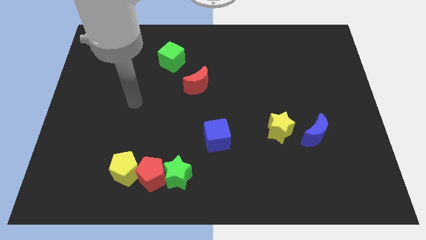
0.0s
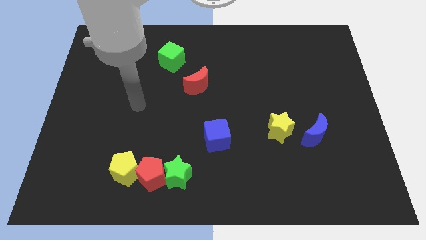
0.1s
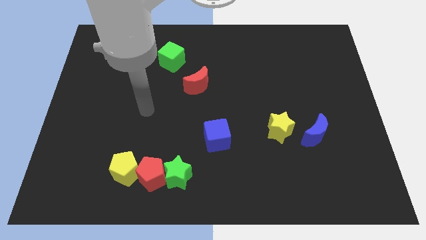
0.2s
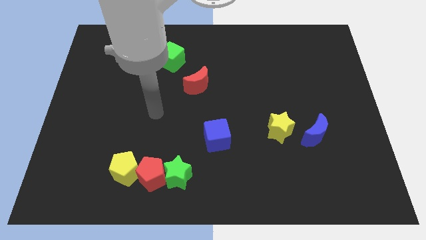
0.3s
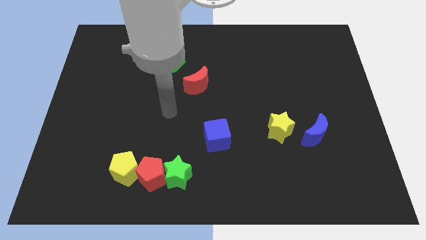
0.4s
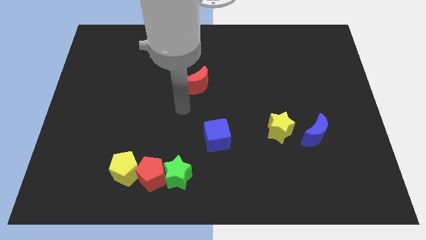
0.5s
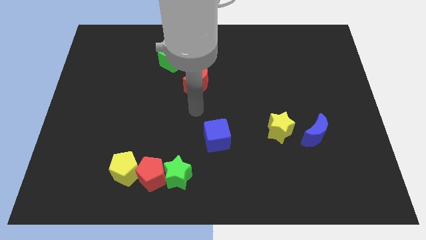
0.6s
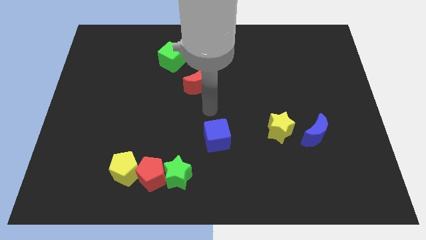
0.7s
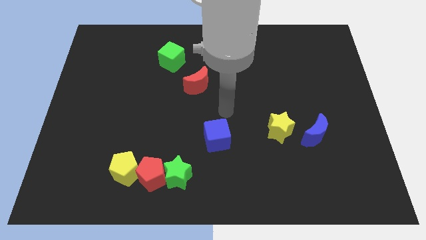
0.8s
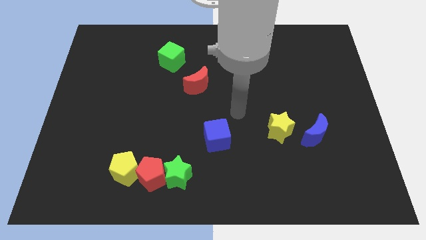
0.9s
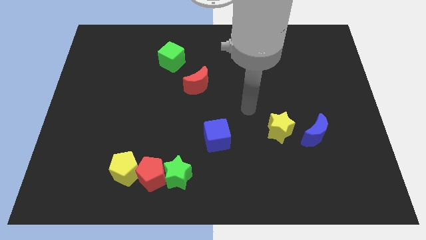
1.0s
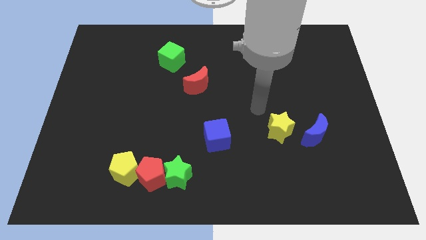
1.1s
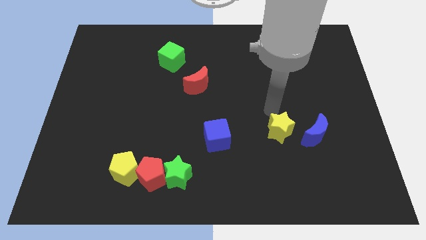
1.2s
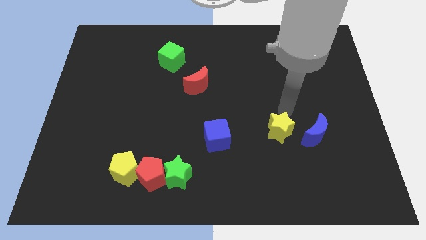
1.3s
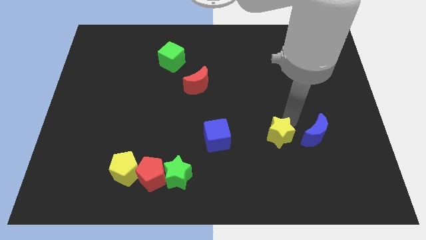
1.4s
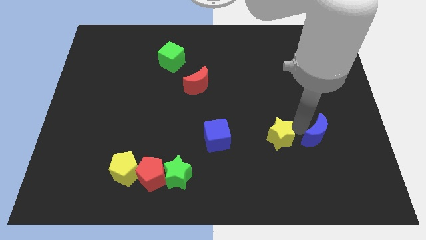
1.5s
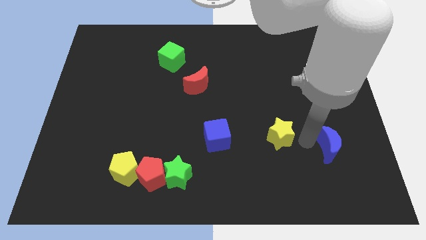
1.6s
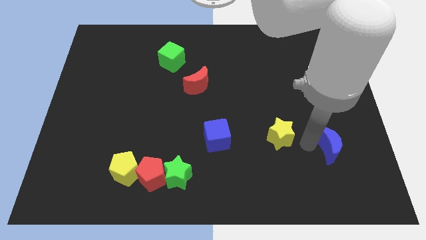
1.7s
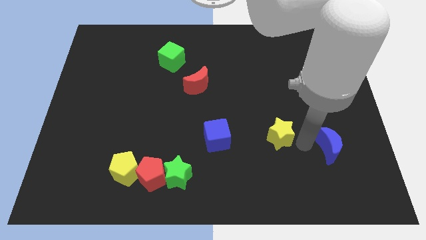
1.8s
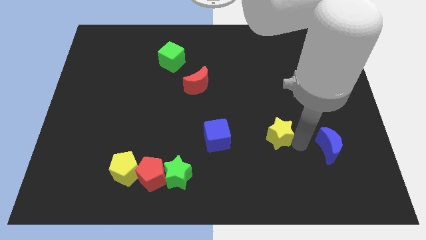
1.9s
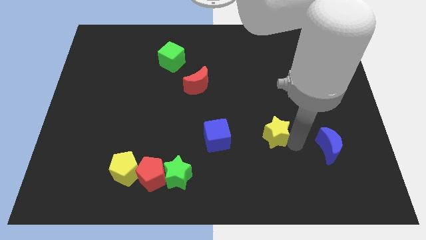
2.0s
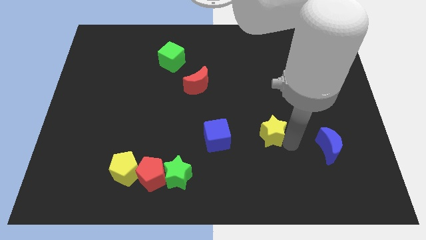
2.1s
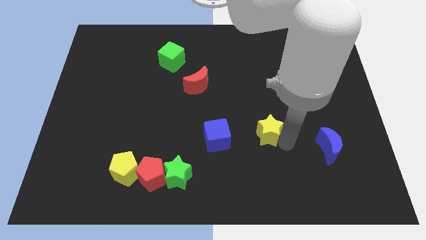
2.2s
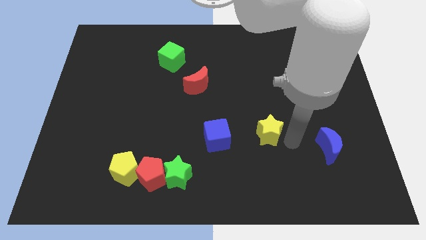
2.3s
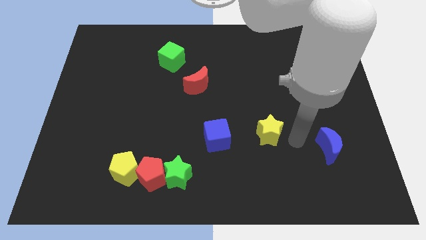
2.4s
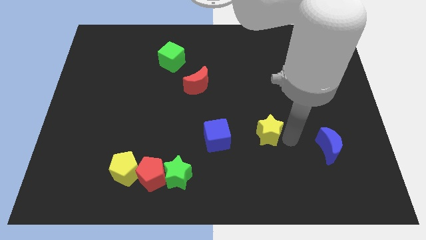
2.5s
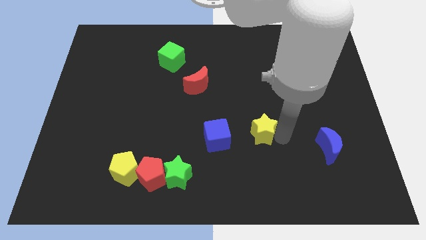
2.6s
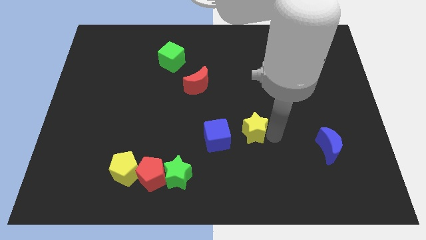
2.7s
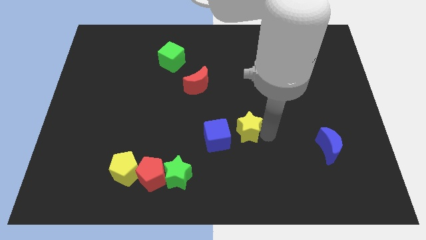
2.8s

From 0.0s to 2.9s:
move the yellow star a little left

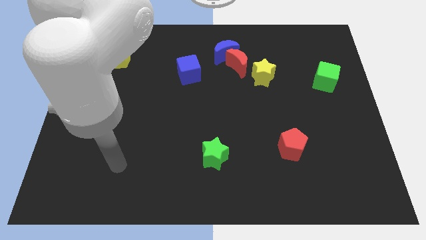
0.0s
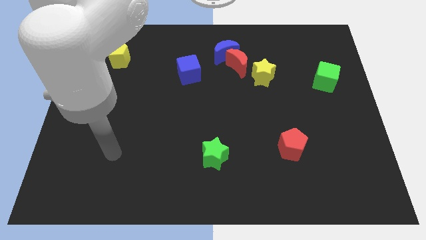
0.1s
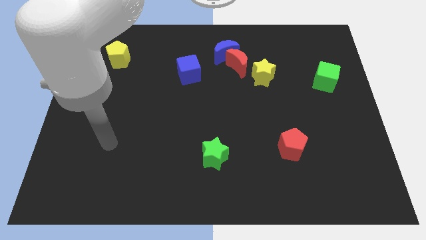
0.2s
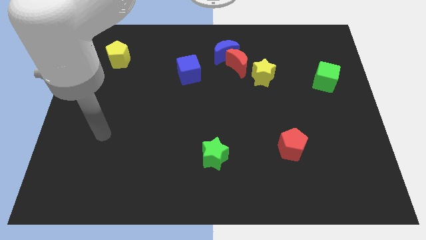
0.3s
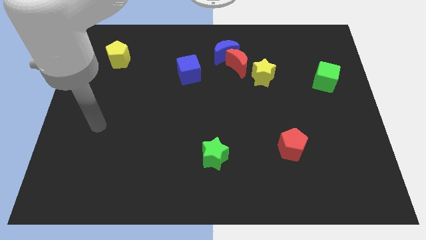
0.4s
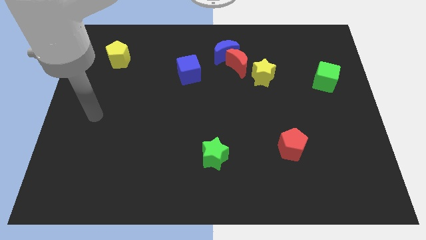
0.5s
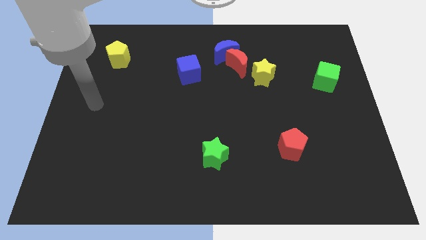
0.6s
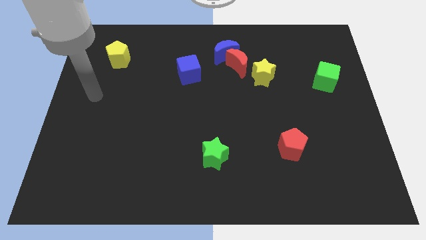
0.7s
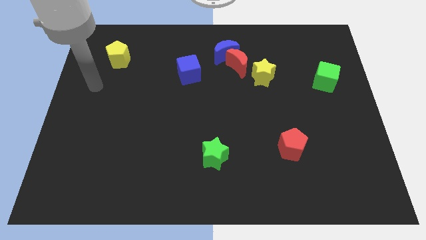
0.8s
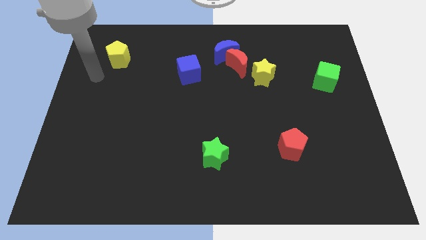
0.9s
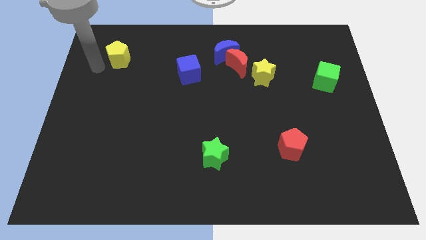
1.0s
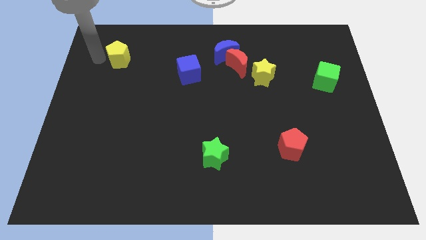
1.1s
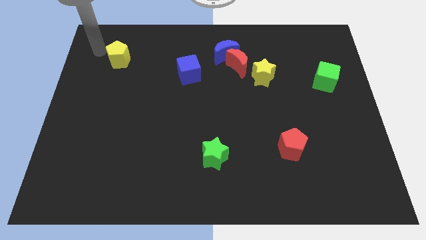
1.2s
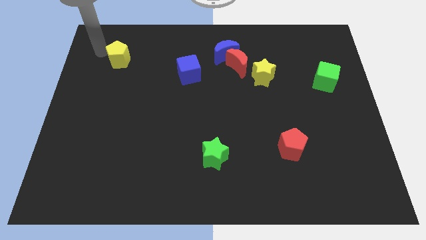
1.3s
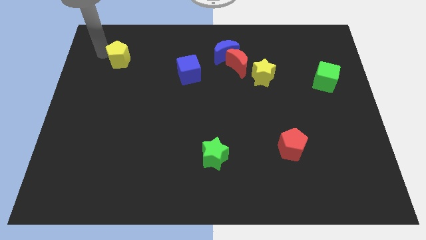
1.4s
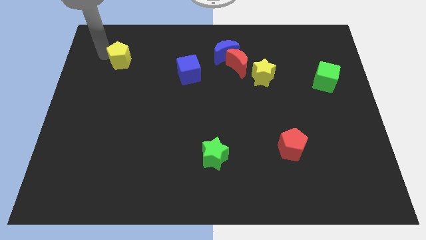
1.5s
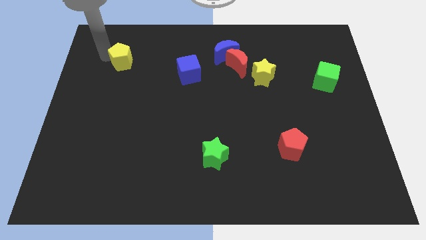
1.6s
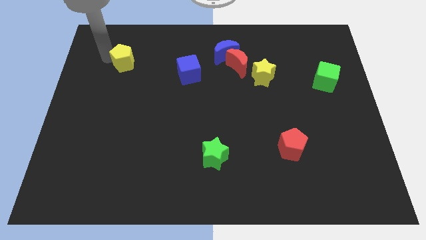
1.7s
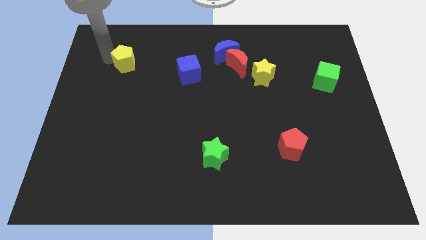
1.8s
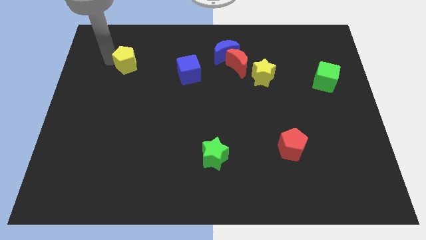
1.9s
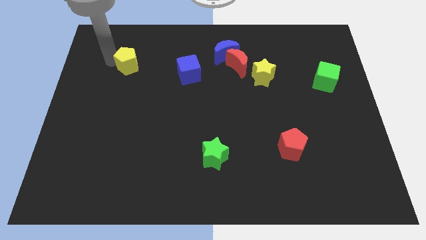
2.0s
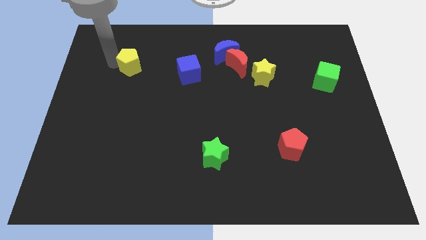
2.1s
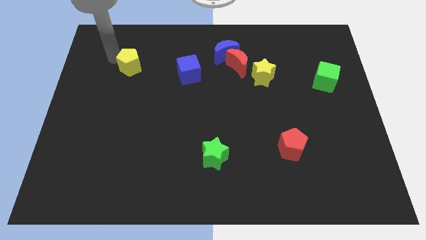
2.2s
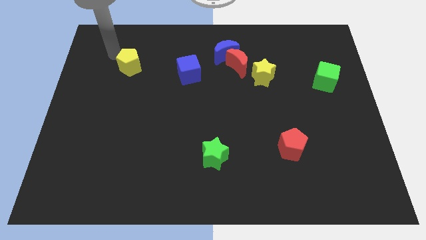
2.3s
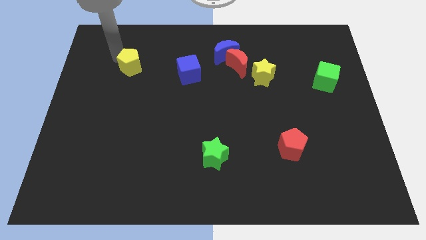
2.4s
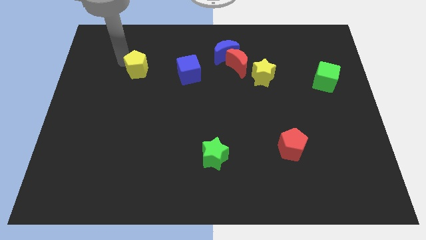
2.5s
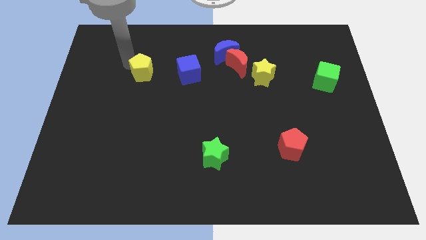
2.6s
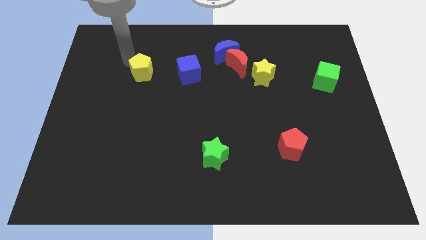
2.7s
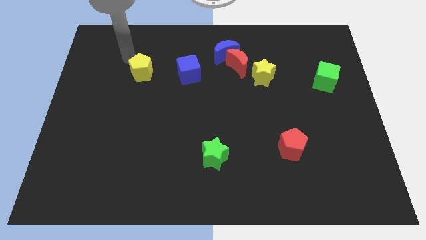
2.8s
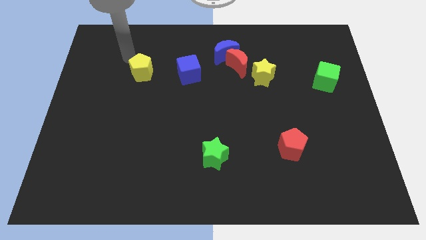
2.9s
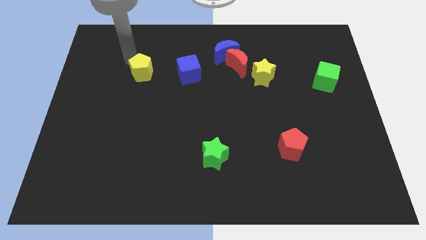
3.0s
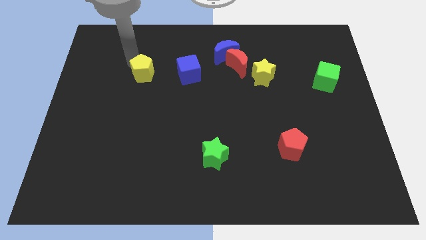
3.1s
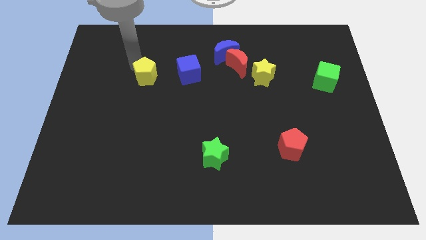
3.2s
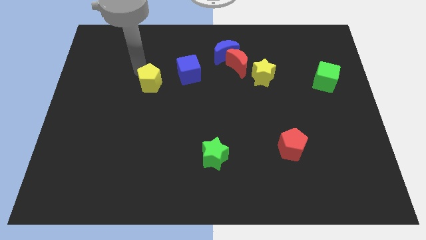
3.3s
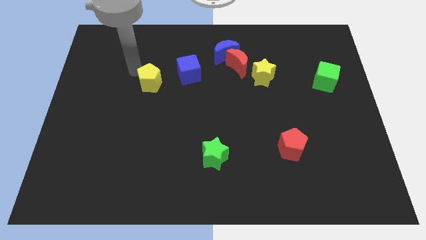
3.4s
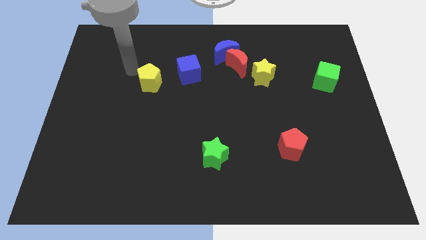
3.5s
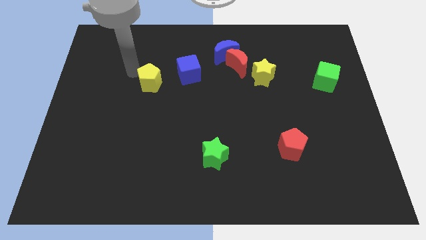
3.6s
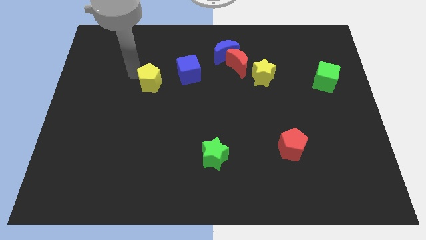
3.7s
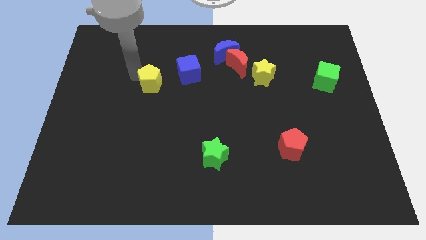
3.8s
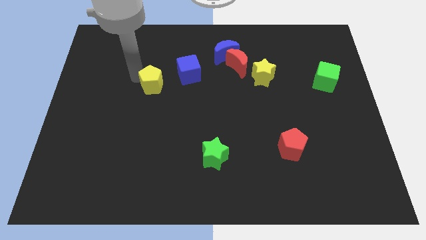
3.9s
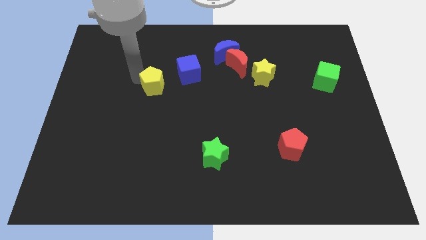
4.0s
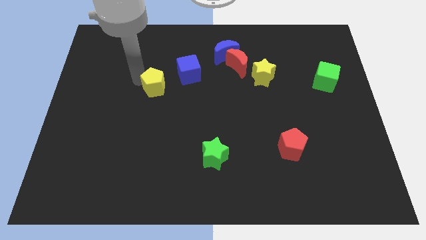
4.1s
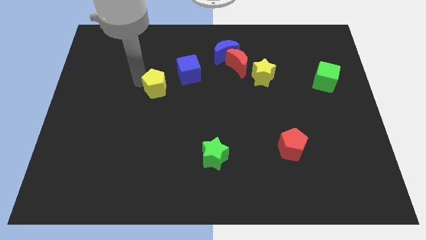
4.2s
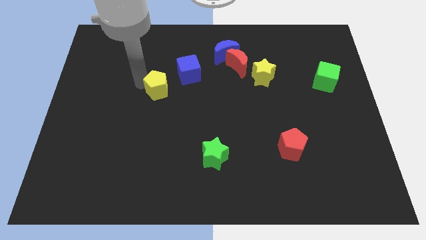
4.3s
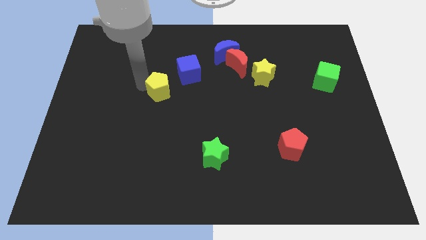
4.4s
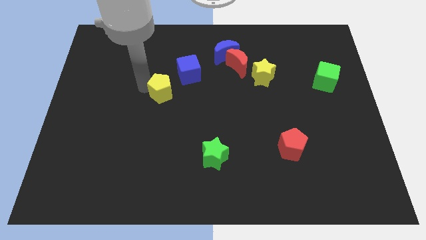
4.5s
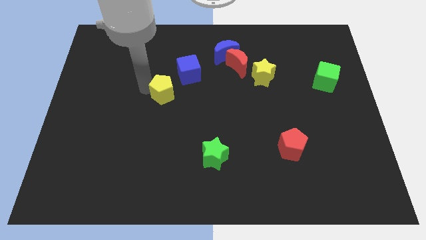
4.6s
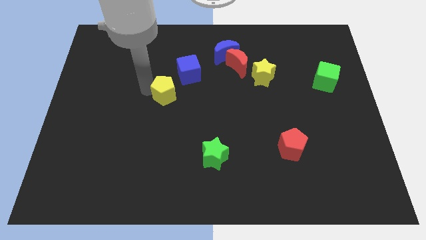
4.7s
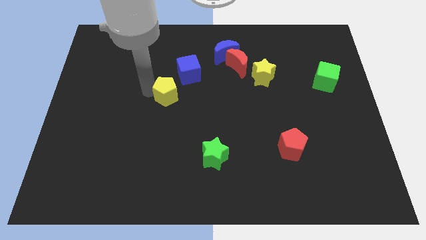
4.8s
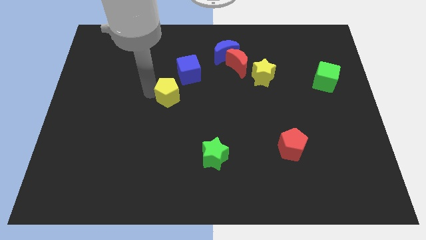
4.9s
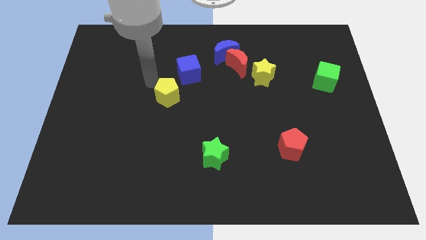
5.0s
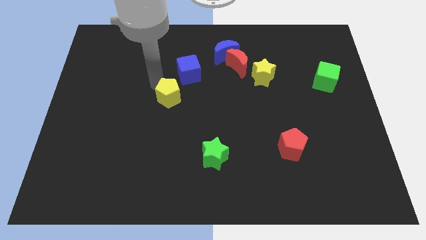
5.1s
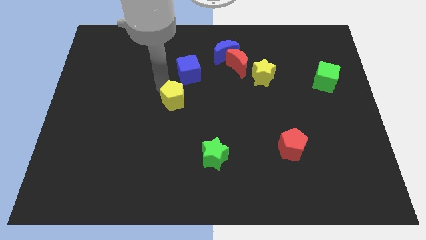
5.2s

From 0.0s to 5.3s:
move the yellow pentagon downwards and then right

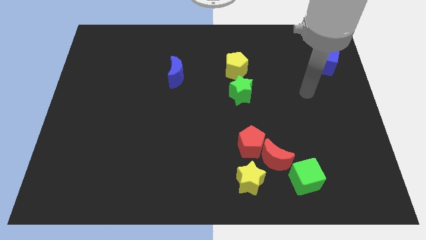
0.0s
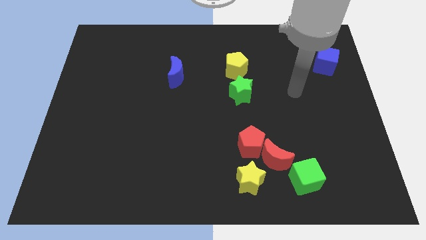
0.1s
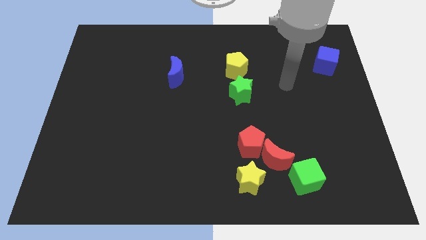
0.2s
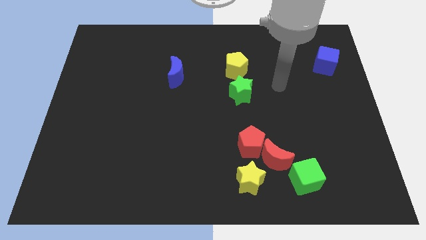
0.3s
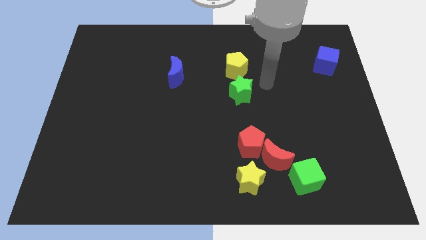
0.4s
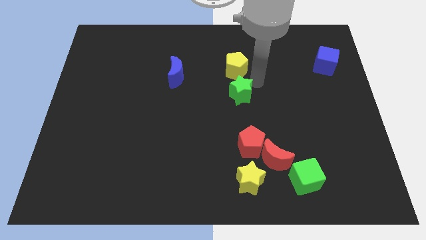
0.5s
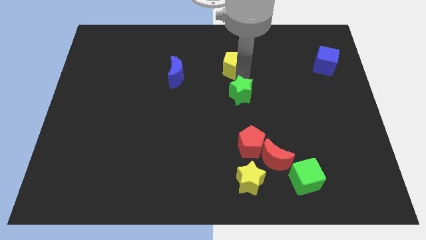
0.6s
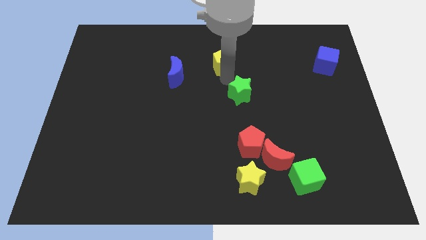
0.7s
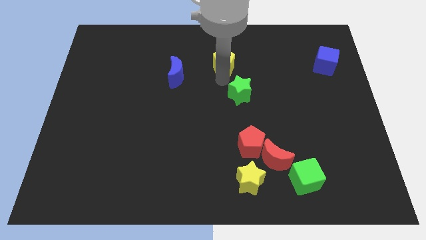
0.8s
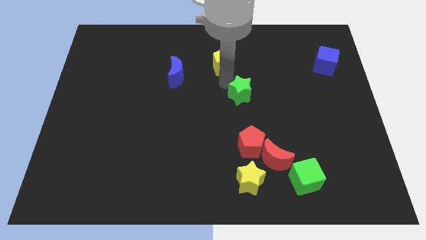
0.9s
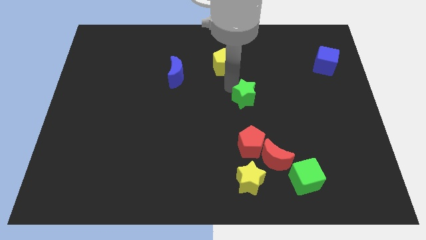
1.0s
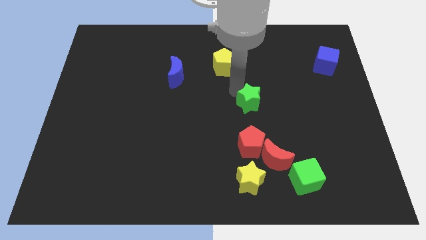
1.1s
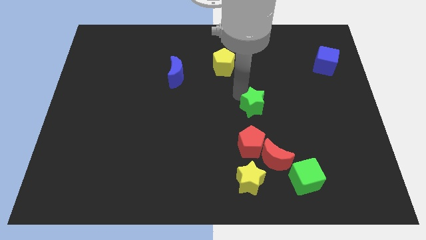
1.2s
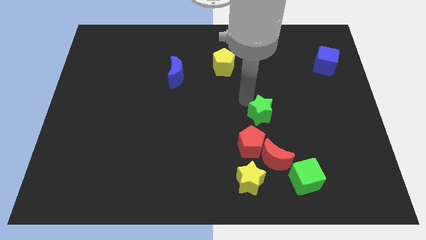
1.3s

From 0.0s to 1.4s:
slightly push the green star downwards and then right
